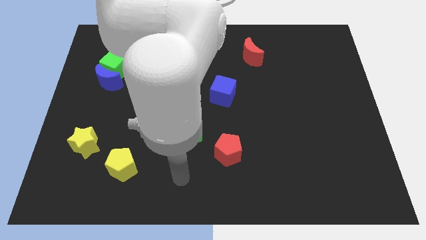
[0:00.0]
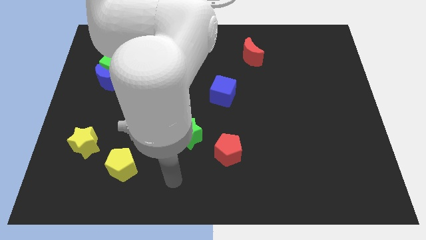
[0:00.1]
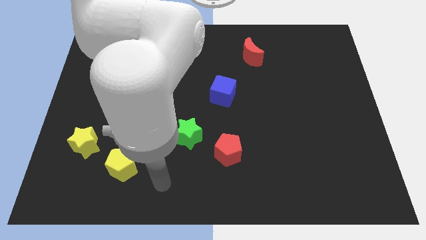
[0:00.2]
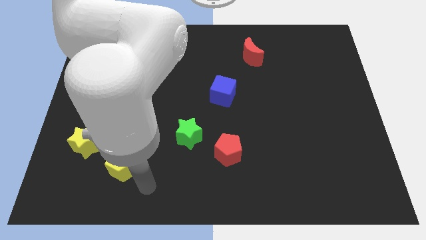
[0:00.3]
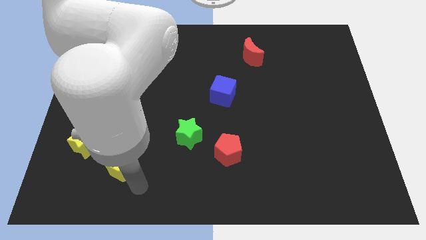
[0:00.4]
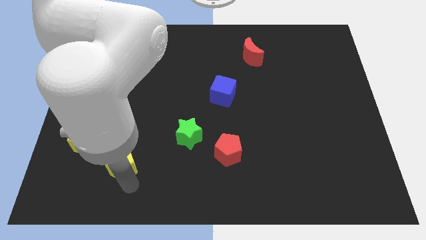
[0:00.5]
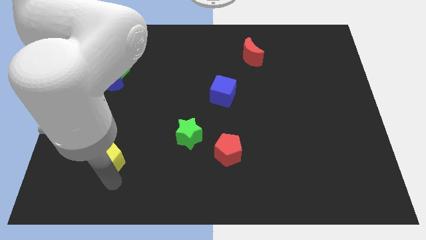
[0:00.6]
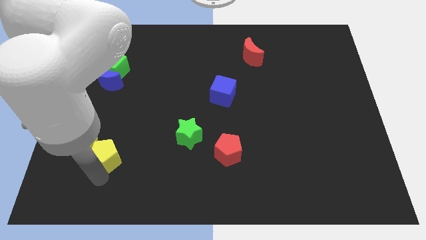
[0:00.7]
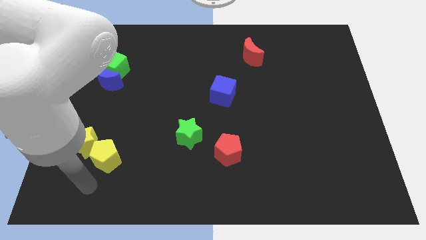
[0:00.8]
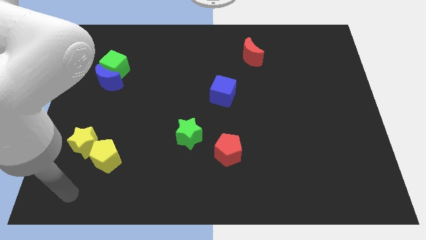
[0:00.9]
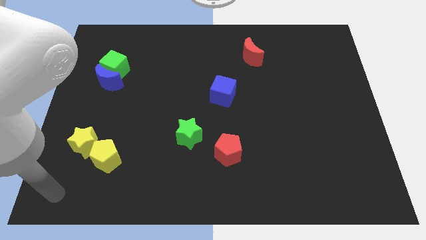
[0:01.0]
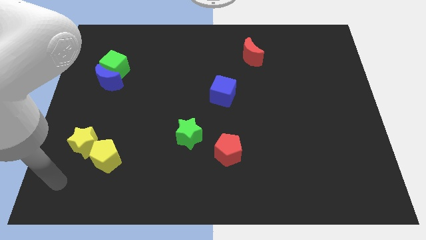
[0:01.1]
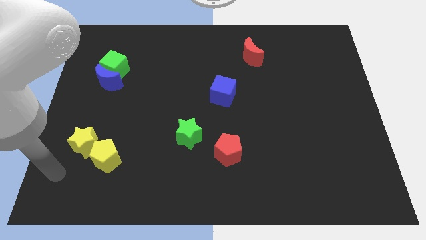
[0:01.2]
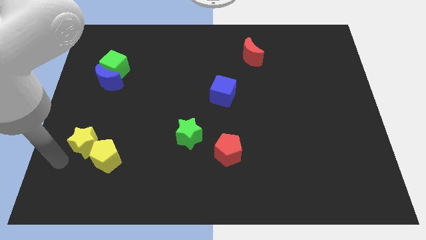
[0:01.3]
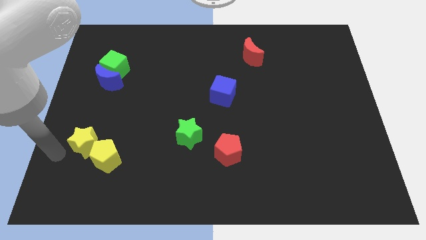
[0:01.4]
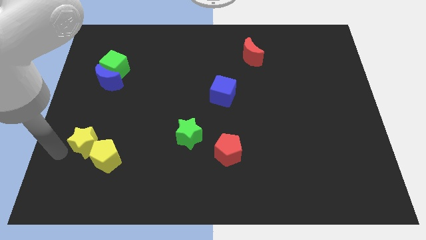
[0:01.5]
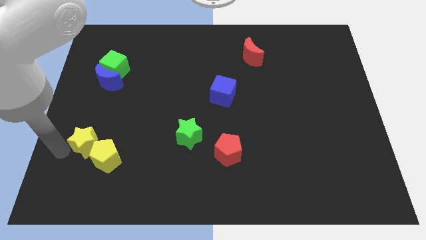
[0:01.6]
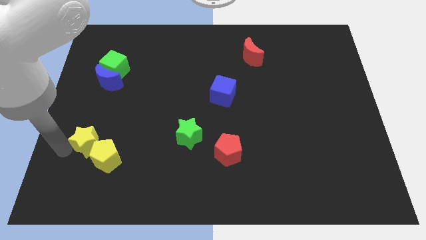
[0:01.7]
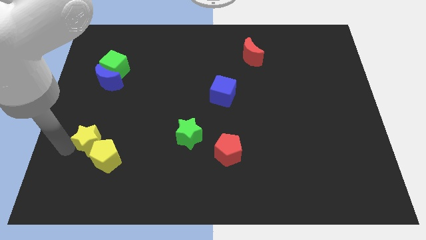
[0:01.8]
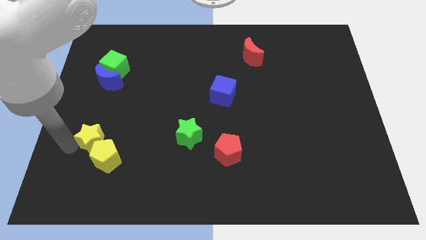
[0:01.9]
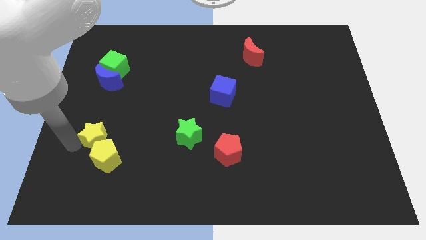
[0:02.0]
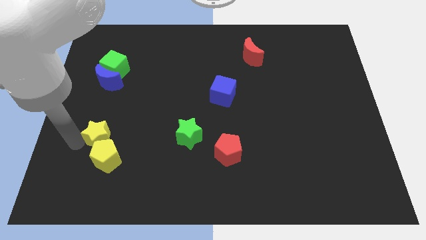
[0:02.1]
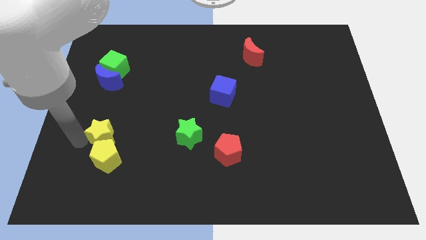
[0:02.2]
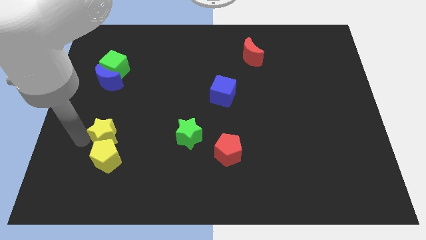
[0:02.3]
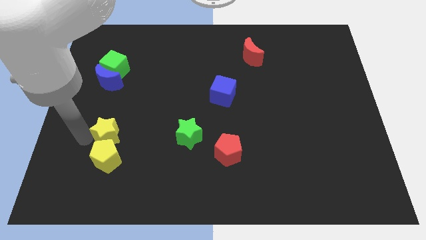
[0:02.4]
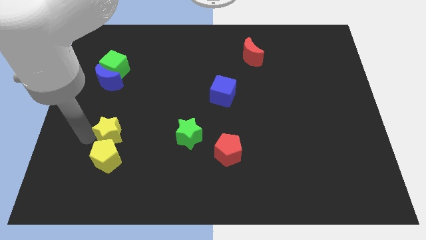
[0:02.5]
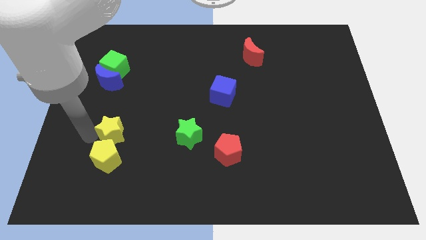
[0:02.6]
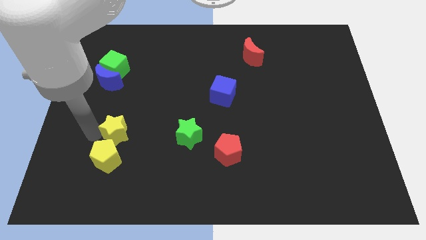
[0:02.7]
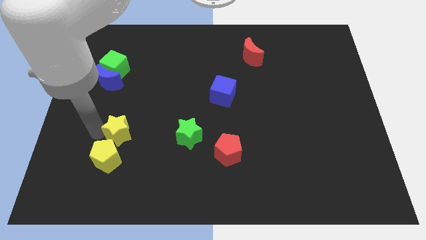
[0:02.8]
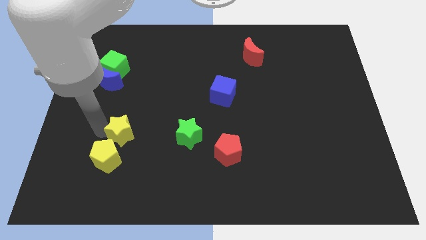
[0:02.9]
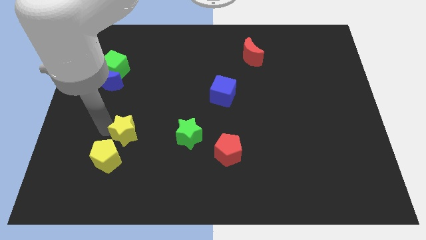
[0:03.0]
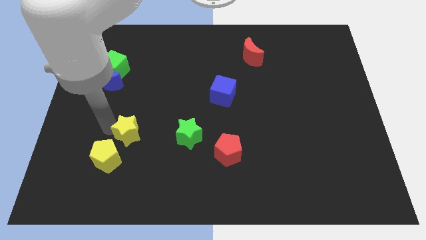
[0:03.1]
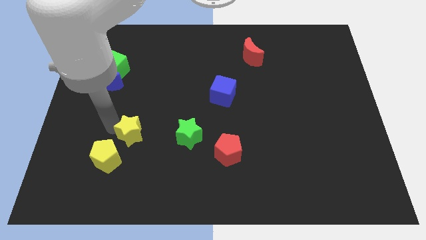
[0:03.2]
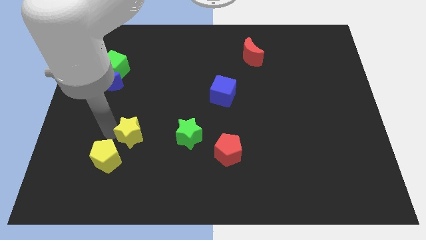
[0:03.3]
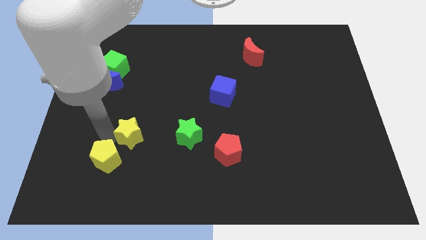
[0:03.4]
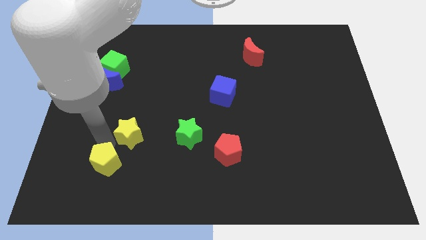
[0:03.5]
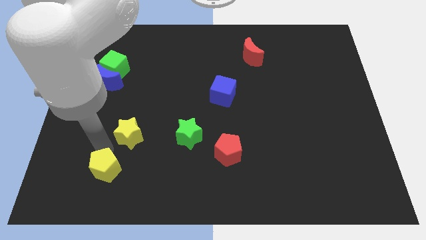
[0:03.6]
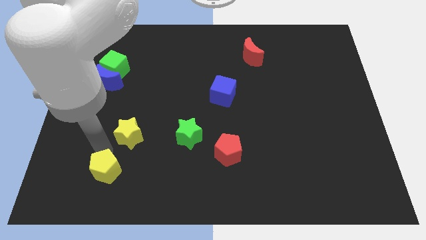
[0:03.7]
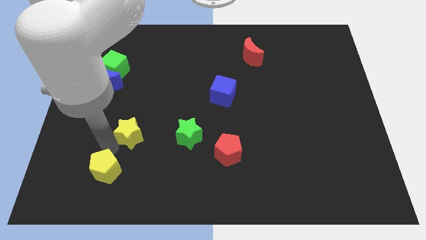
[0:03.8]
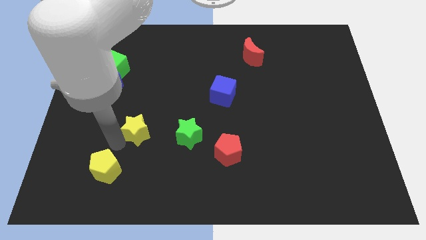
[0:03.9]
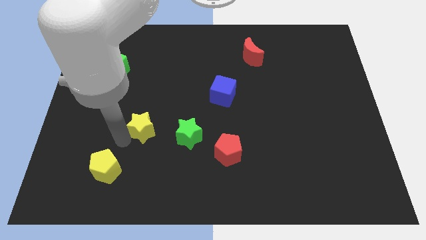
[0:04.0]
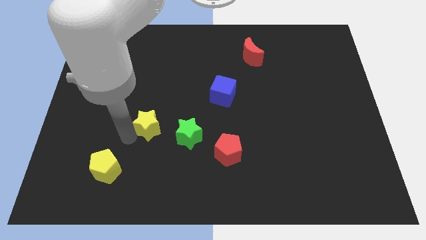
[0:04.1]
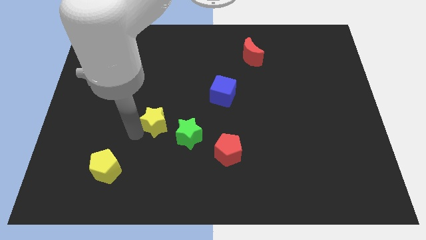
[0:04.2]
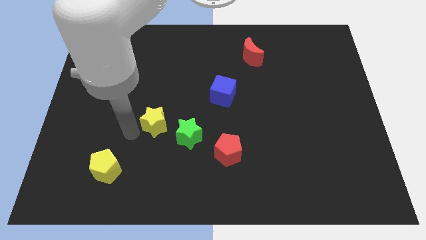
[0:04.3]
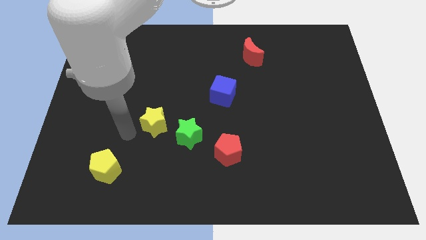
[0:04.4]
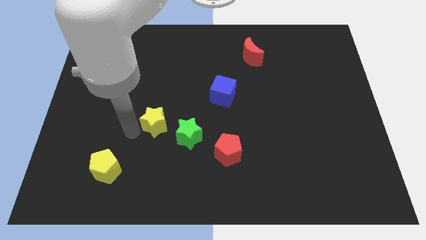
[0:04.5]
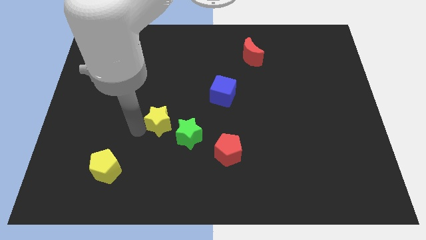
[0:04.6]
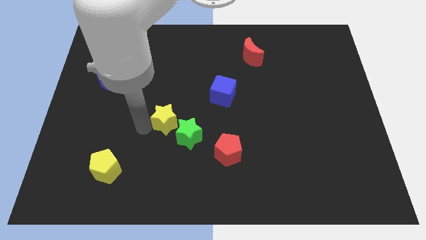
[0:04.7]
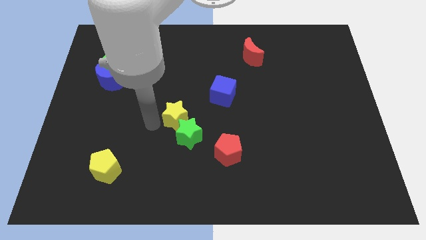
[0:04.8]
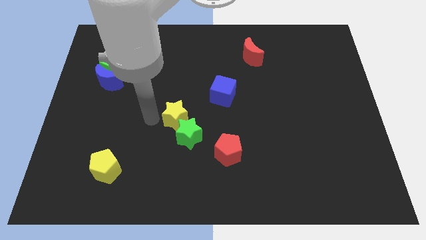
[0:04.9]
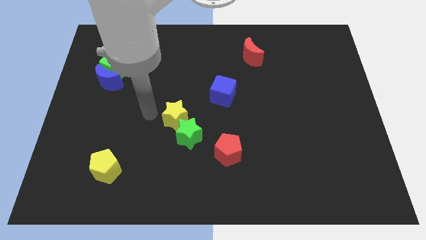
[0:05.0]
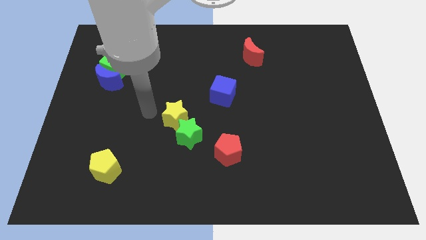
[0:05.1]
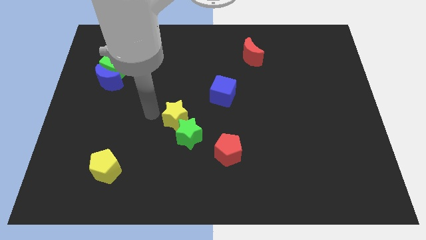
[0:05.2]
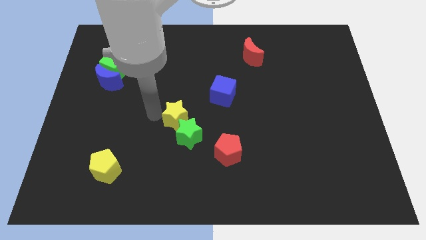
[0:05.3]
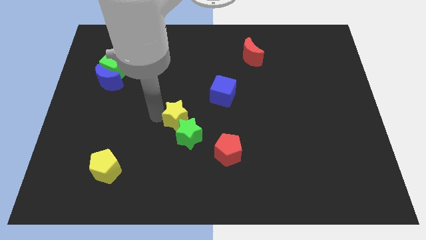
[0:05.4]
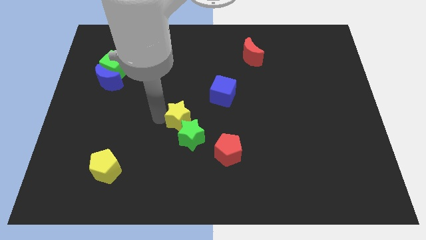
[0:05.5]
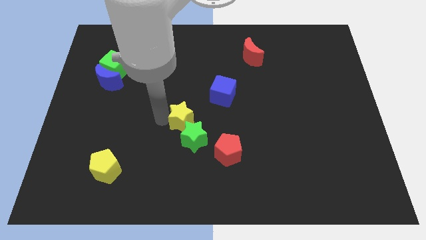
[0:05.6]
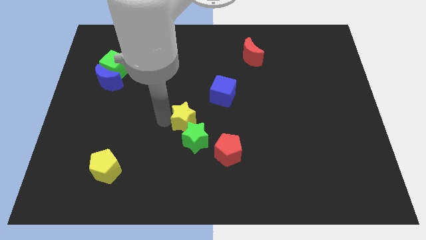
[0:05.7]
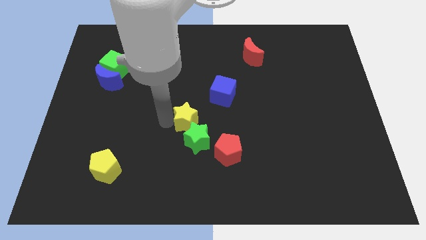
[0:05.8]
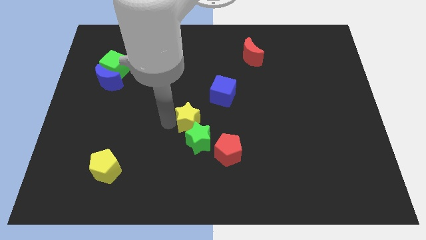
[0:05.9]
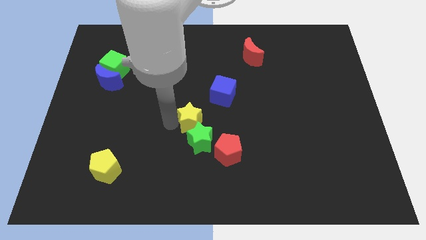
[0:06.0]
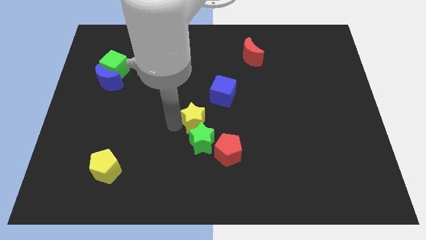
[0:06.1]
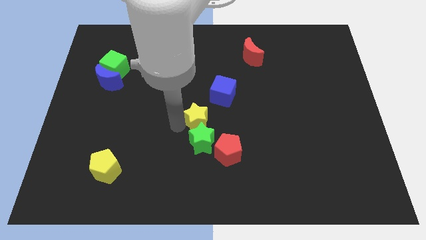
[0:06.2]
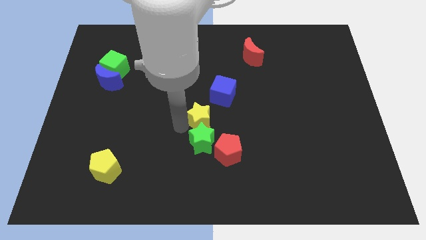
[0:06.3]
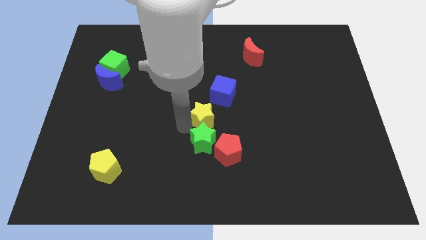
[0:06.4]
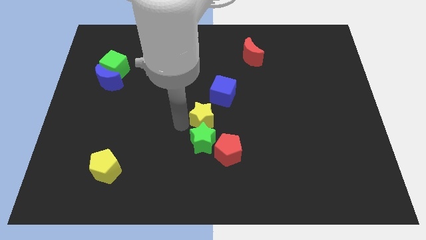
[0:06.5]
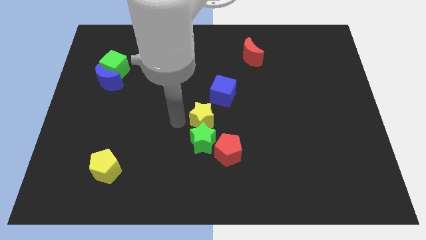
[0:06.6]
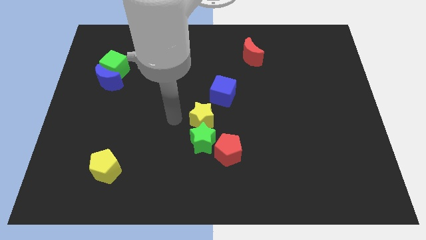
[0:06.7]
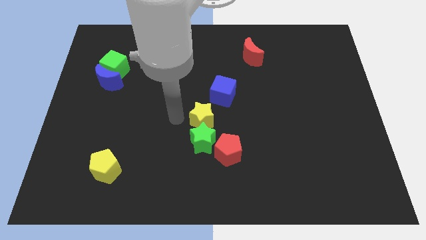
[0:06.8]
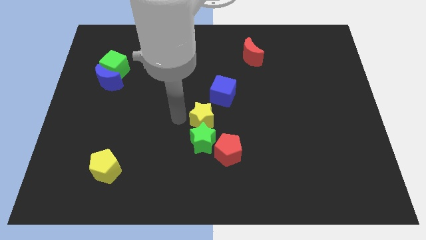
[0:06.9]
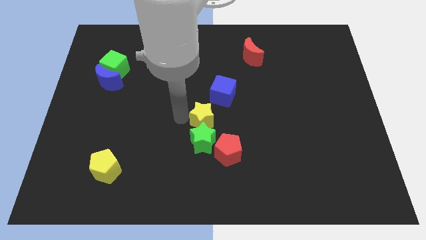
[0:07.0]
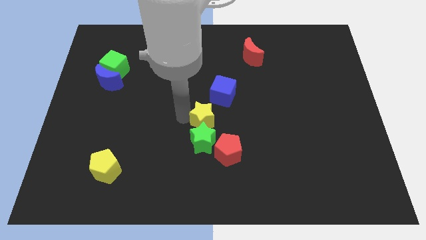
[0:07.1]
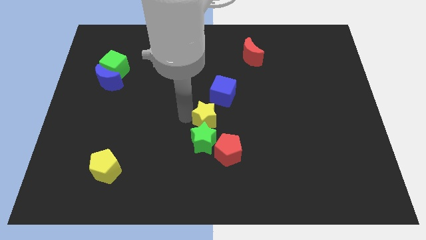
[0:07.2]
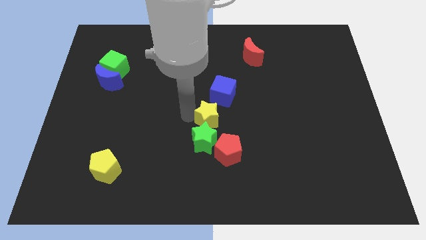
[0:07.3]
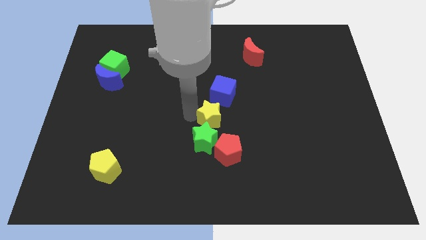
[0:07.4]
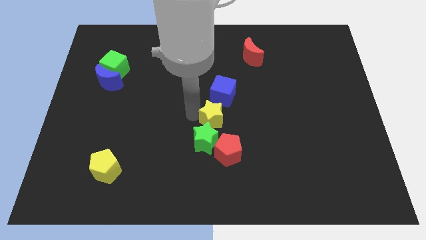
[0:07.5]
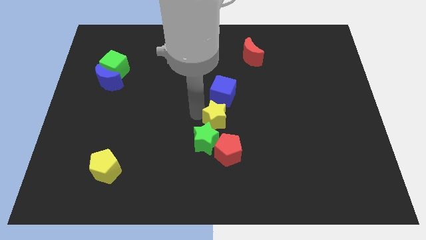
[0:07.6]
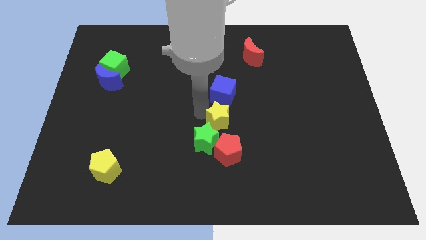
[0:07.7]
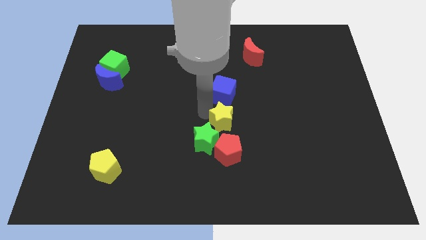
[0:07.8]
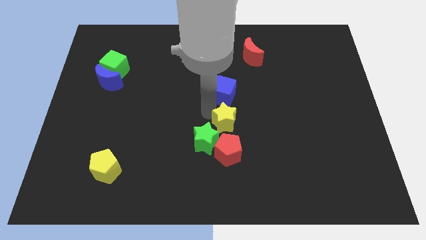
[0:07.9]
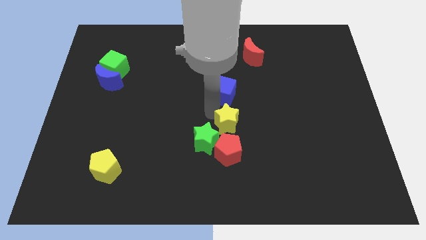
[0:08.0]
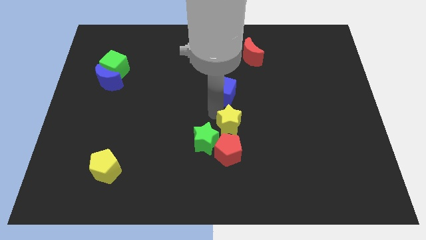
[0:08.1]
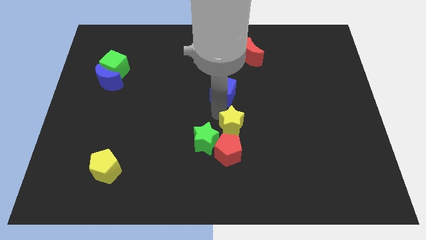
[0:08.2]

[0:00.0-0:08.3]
slide the yellow star to the top right side of the red pentagon
